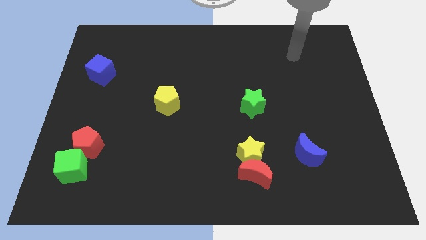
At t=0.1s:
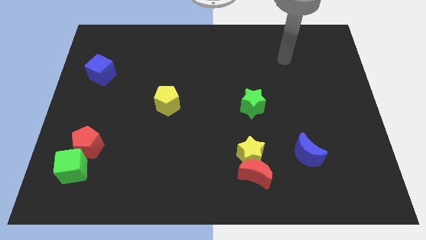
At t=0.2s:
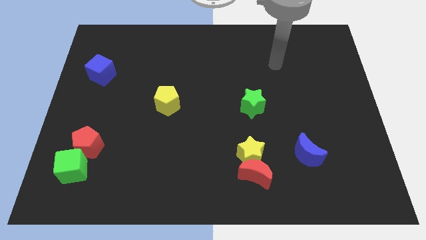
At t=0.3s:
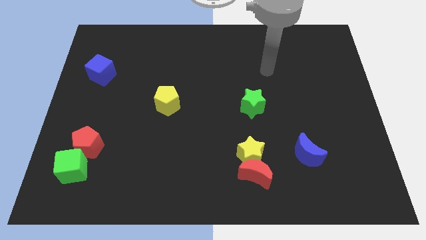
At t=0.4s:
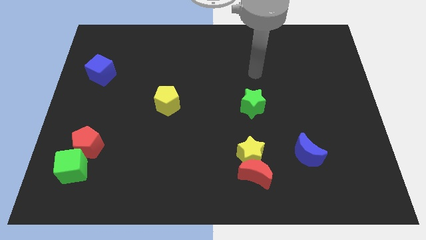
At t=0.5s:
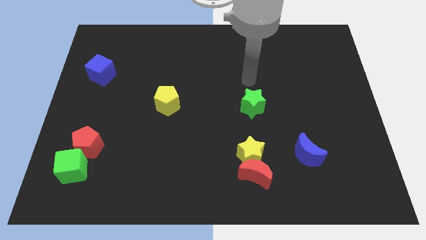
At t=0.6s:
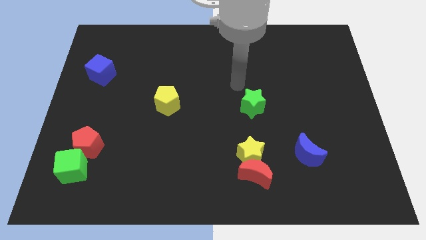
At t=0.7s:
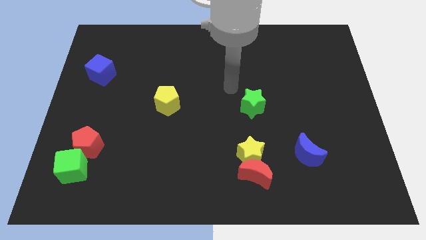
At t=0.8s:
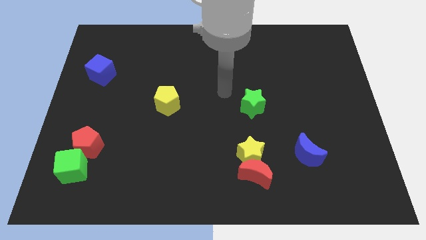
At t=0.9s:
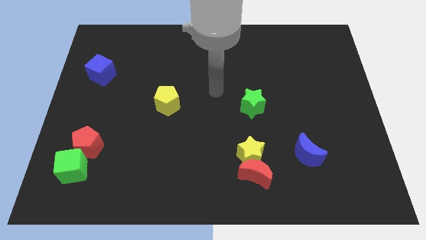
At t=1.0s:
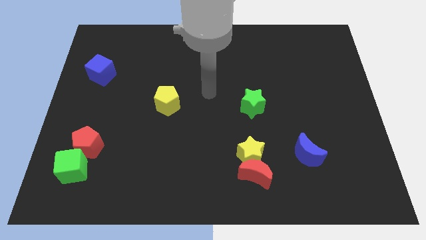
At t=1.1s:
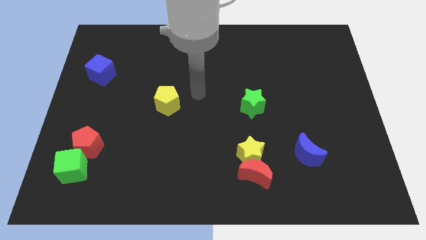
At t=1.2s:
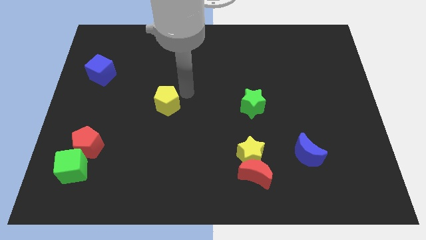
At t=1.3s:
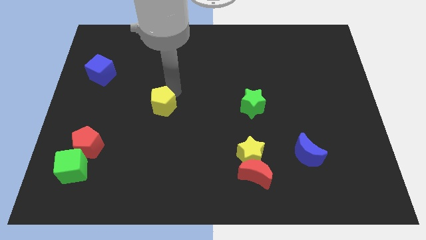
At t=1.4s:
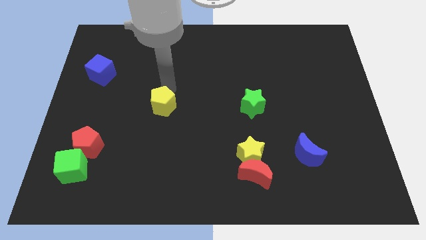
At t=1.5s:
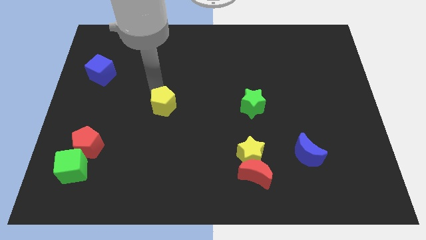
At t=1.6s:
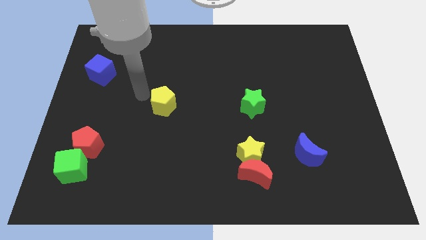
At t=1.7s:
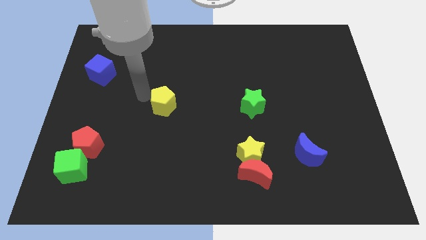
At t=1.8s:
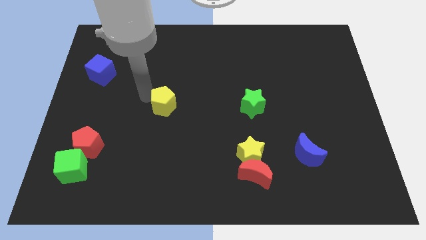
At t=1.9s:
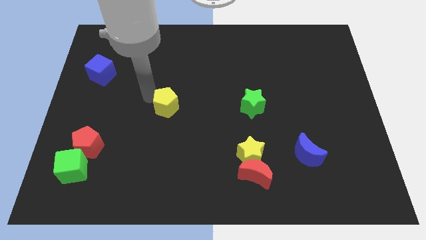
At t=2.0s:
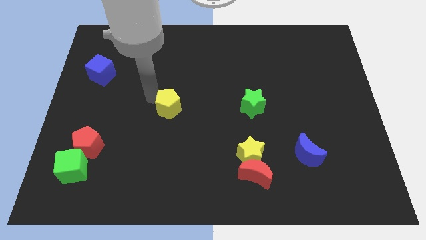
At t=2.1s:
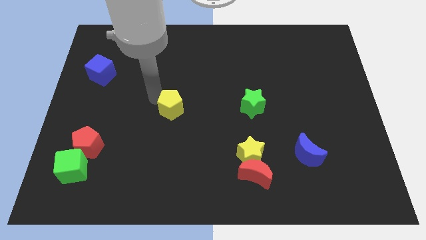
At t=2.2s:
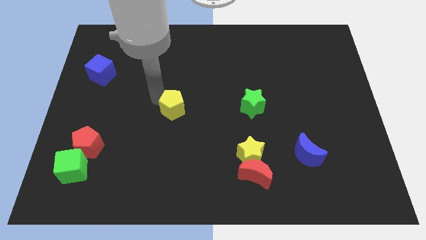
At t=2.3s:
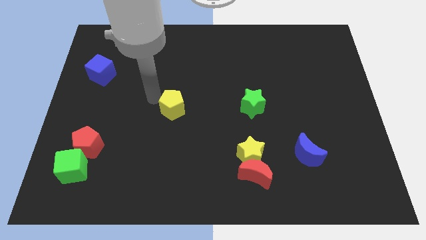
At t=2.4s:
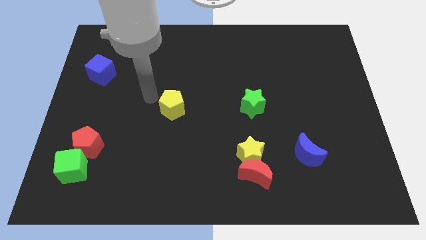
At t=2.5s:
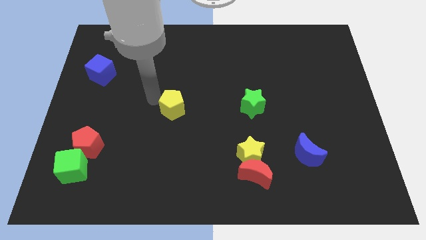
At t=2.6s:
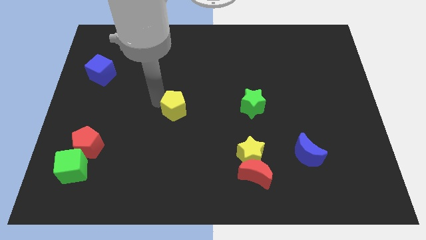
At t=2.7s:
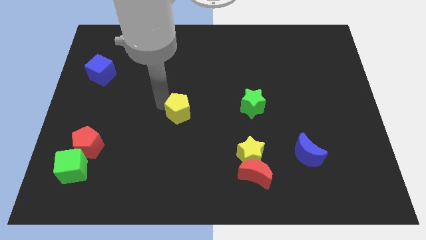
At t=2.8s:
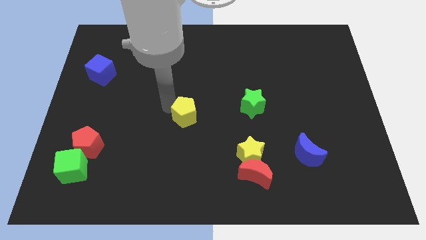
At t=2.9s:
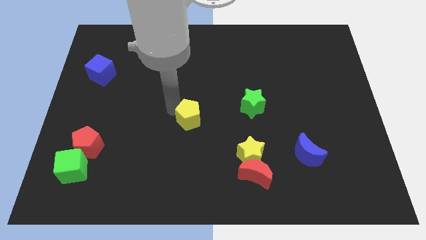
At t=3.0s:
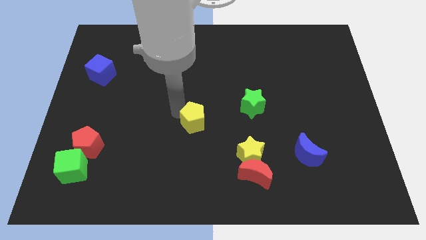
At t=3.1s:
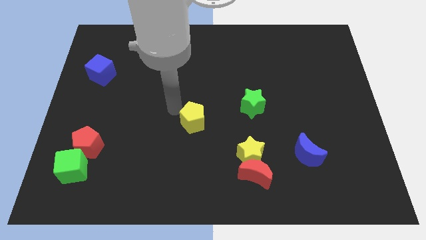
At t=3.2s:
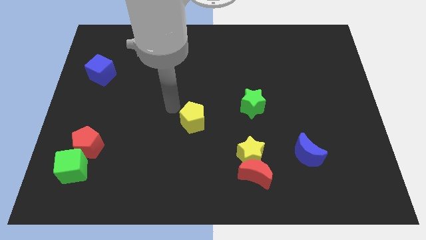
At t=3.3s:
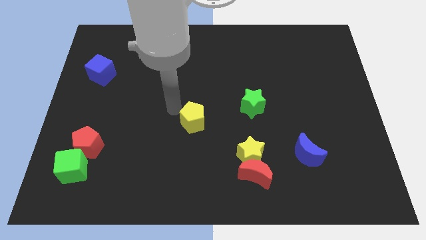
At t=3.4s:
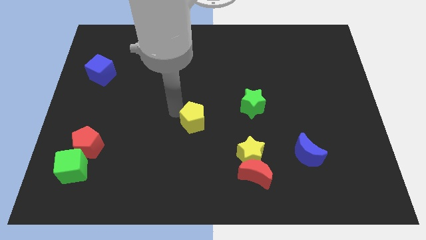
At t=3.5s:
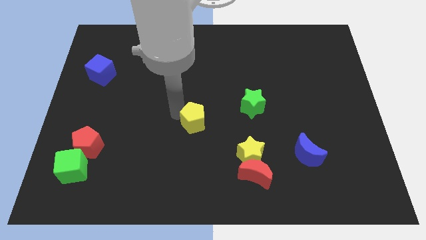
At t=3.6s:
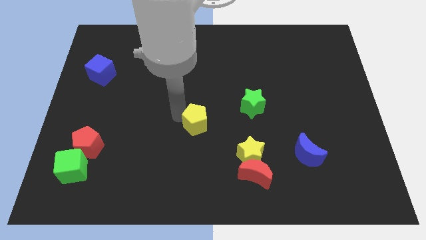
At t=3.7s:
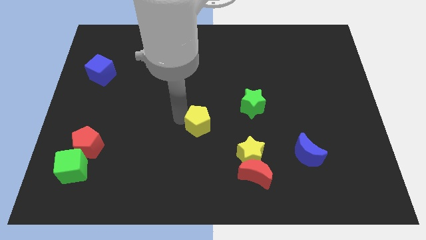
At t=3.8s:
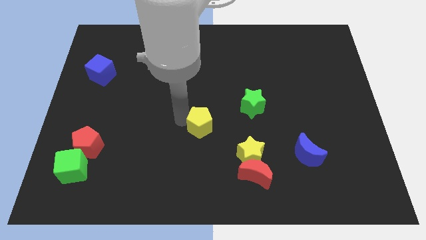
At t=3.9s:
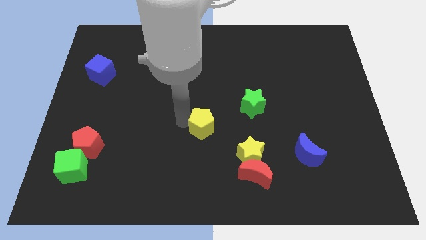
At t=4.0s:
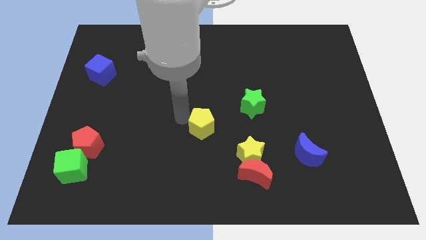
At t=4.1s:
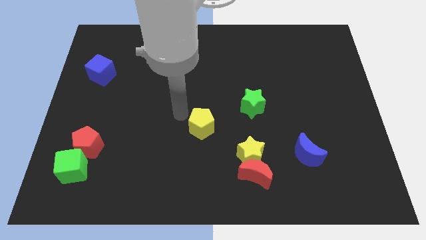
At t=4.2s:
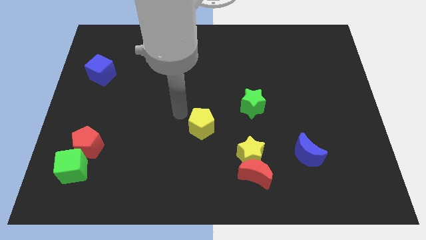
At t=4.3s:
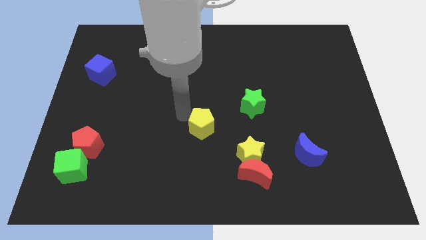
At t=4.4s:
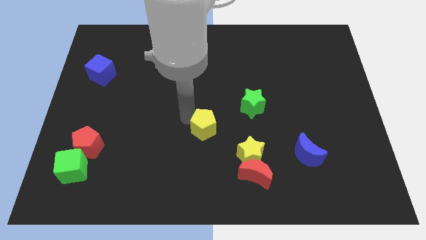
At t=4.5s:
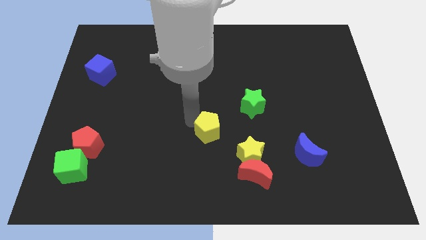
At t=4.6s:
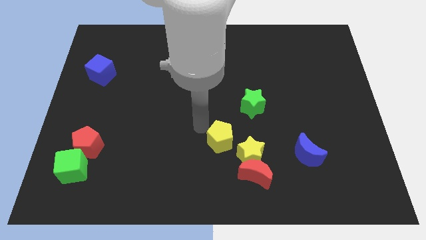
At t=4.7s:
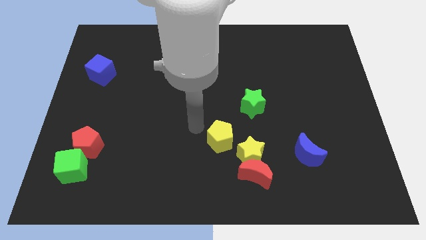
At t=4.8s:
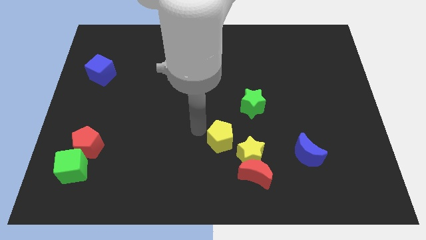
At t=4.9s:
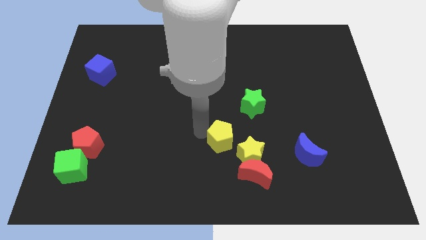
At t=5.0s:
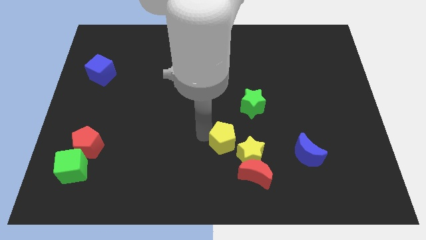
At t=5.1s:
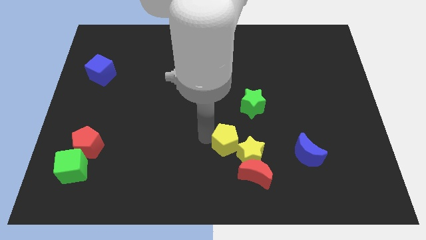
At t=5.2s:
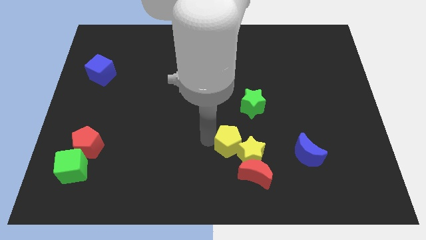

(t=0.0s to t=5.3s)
put the yellow pentagon close to the yellow star

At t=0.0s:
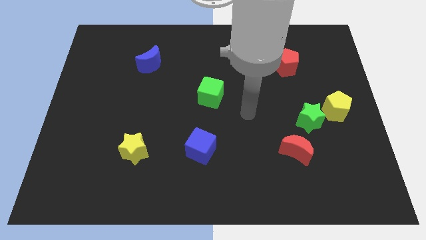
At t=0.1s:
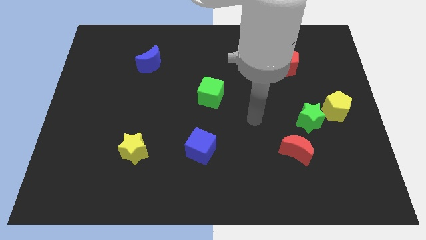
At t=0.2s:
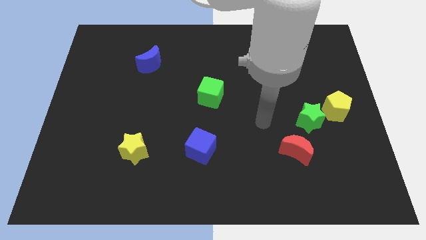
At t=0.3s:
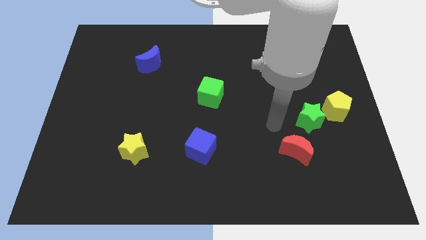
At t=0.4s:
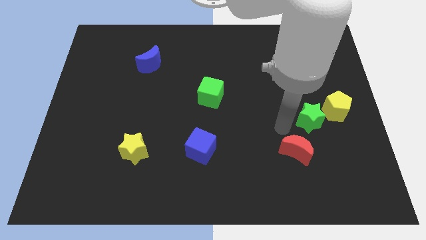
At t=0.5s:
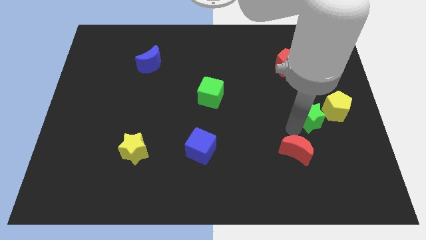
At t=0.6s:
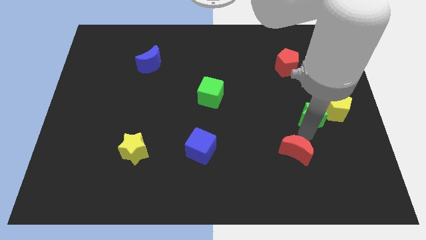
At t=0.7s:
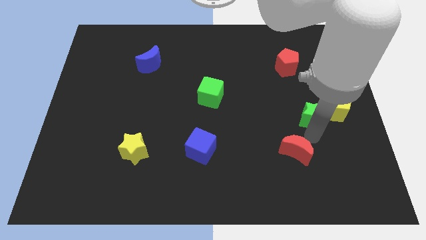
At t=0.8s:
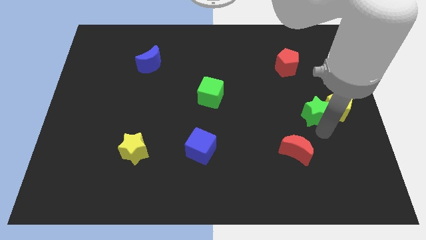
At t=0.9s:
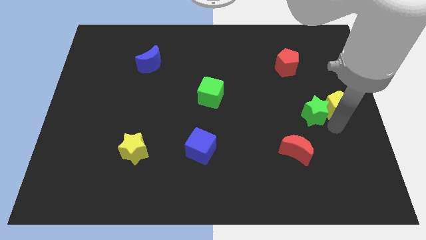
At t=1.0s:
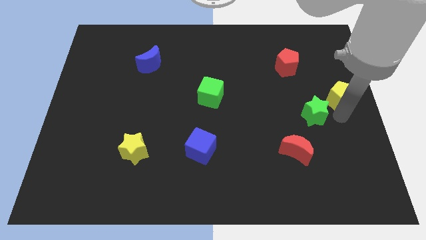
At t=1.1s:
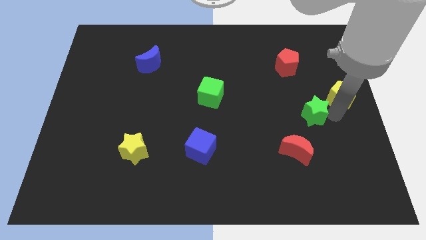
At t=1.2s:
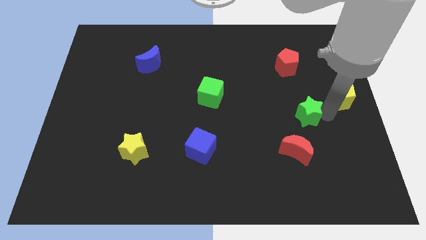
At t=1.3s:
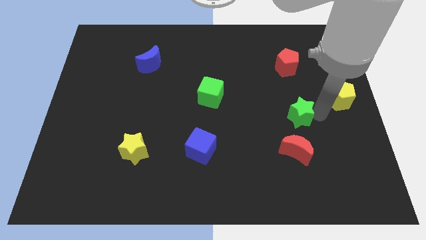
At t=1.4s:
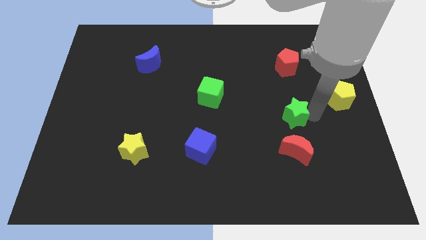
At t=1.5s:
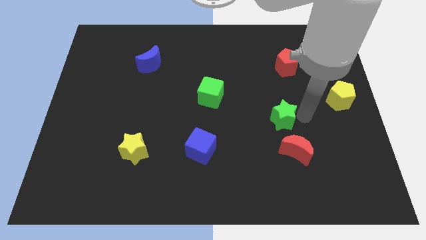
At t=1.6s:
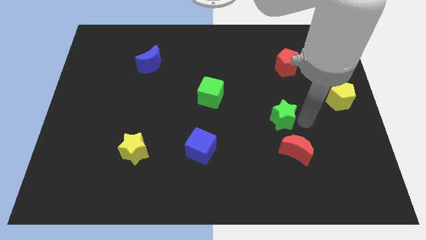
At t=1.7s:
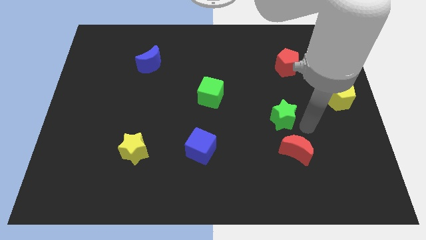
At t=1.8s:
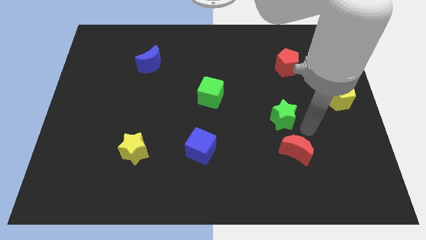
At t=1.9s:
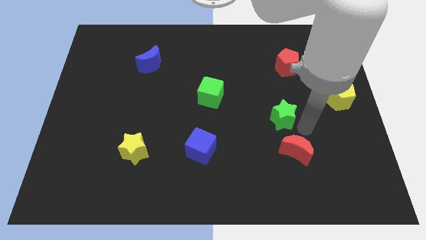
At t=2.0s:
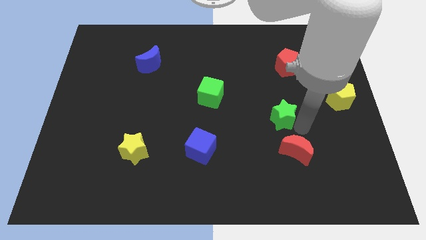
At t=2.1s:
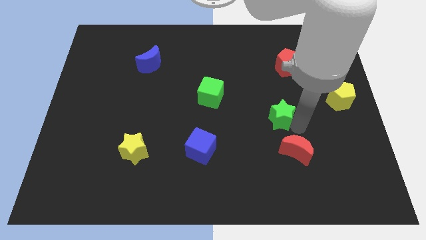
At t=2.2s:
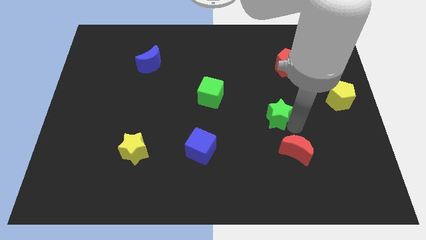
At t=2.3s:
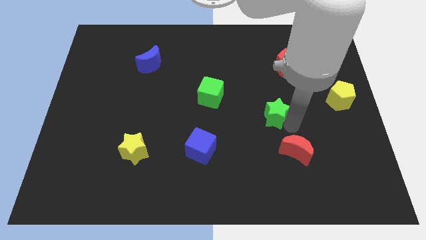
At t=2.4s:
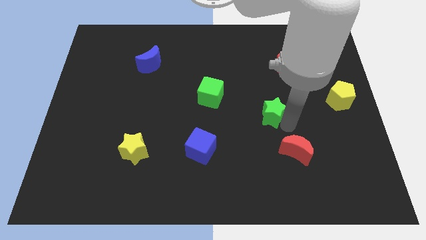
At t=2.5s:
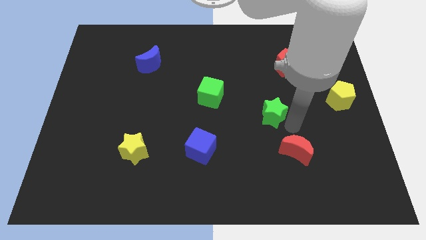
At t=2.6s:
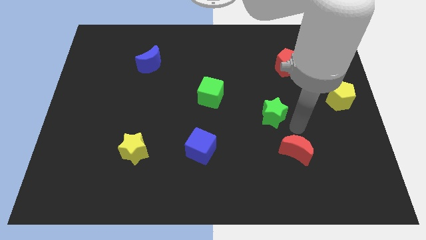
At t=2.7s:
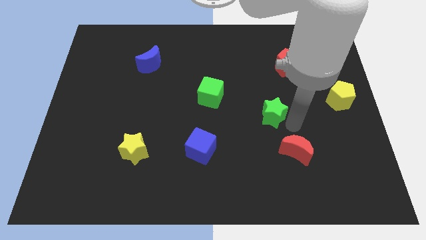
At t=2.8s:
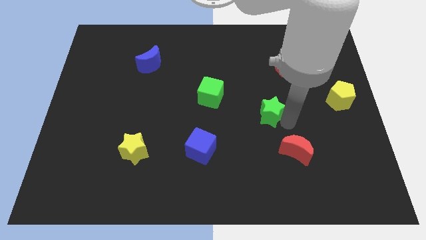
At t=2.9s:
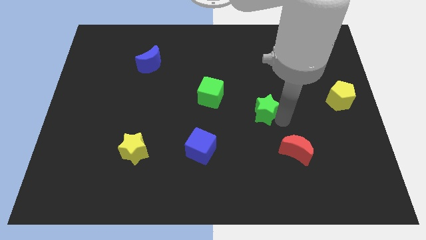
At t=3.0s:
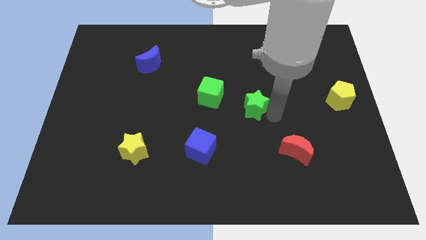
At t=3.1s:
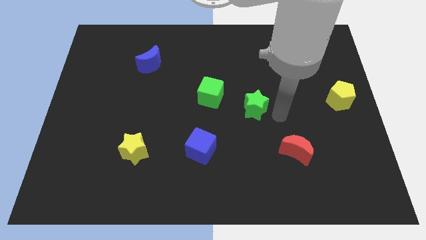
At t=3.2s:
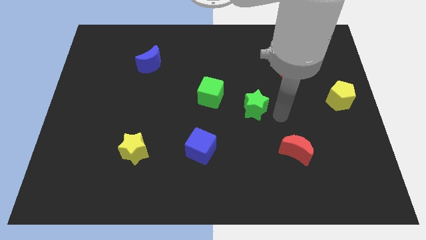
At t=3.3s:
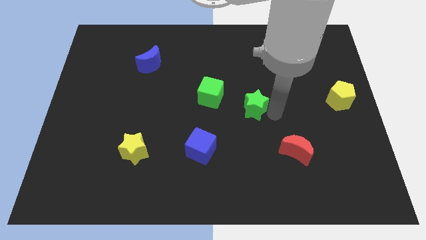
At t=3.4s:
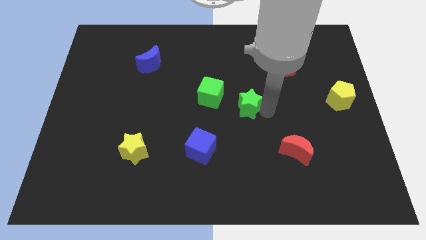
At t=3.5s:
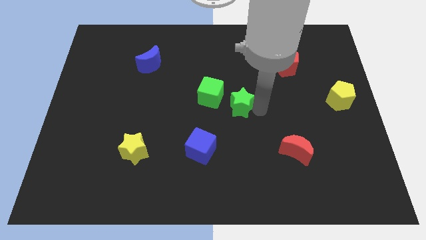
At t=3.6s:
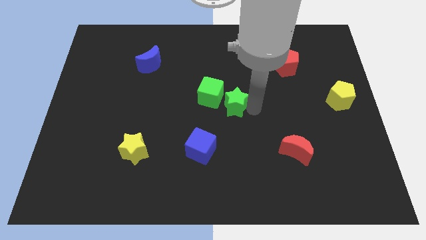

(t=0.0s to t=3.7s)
push the green star towards the green cube
